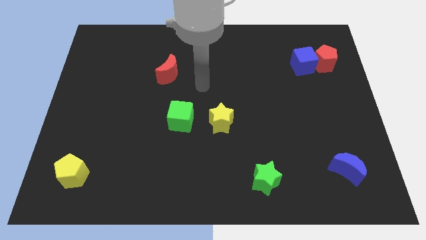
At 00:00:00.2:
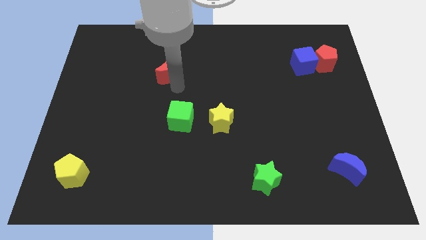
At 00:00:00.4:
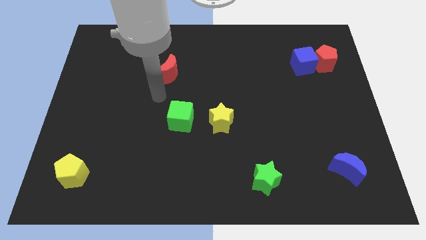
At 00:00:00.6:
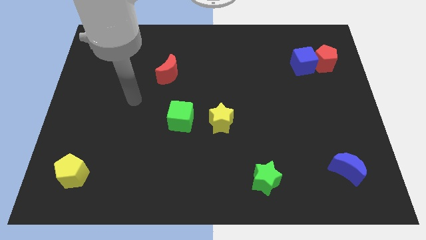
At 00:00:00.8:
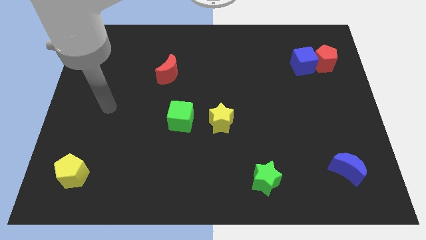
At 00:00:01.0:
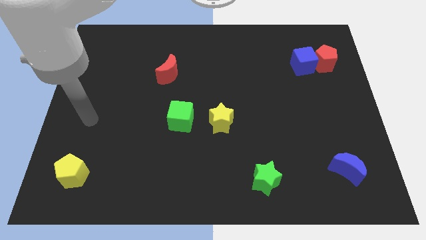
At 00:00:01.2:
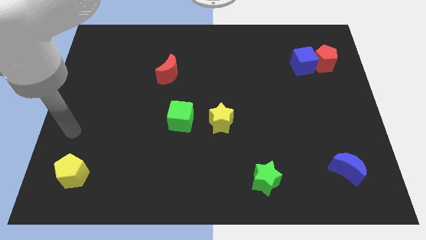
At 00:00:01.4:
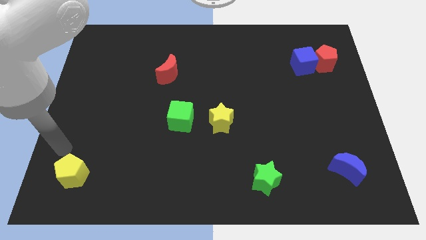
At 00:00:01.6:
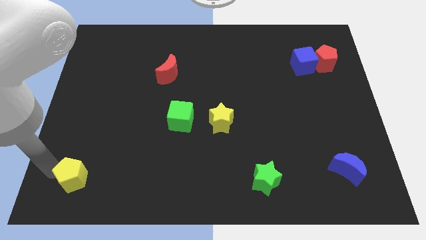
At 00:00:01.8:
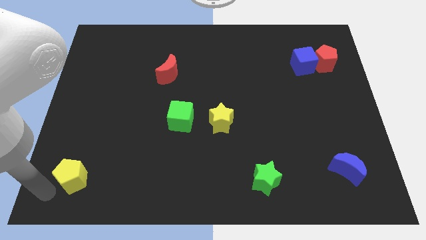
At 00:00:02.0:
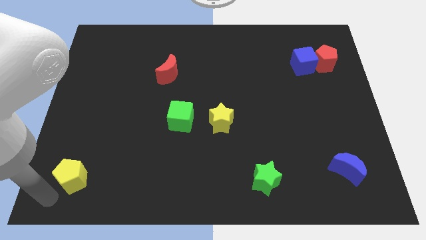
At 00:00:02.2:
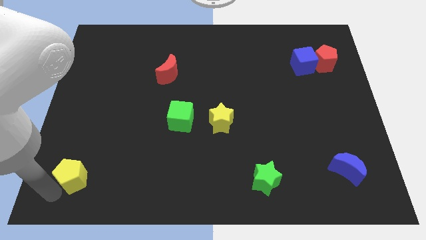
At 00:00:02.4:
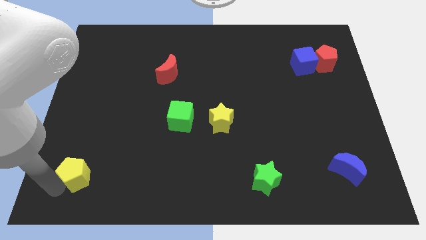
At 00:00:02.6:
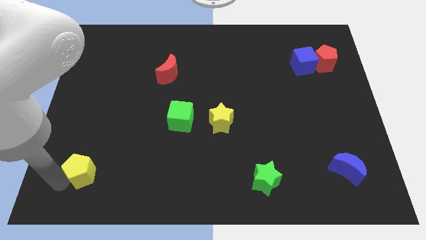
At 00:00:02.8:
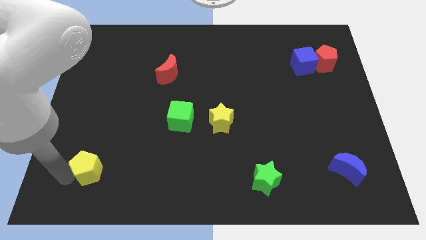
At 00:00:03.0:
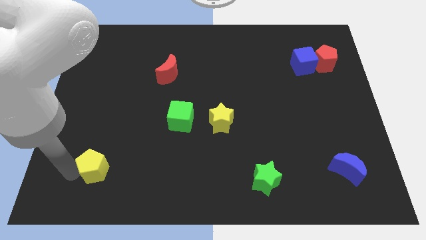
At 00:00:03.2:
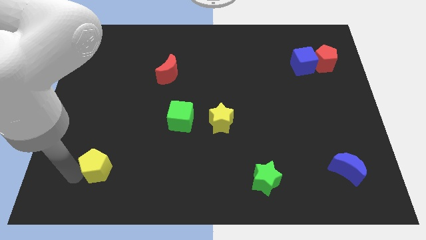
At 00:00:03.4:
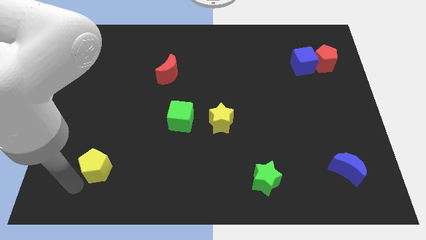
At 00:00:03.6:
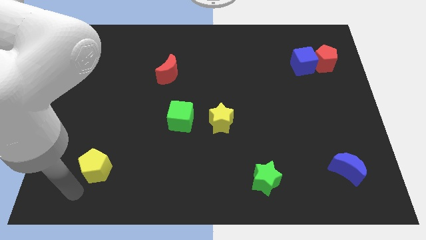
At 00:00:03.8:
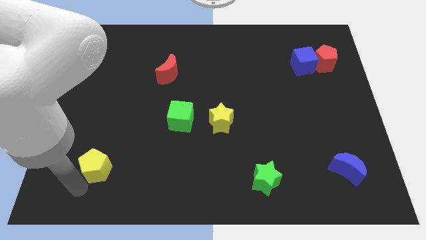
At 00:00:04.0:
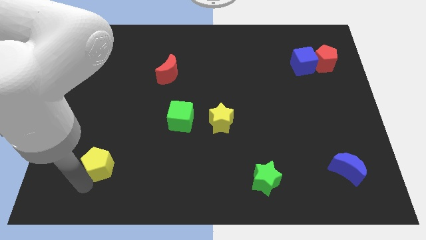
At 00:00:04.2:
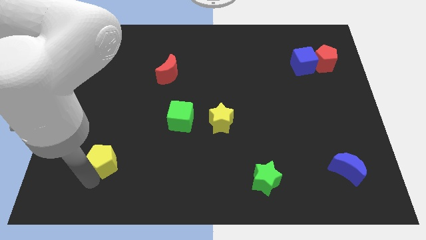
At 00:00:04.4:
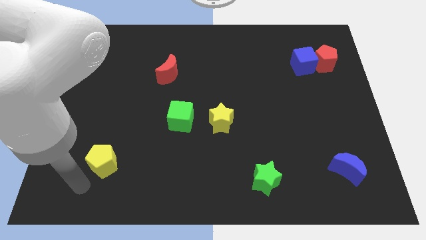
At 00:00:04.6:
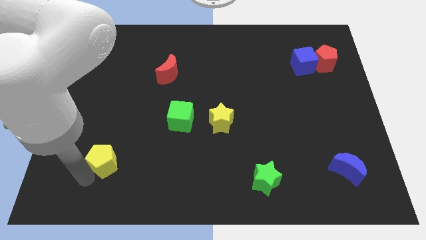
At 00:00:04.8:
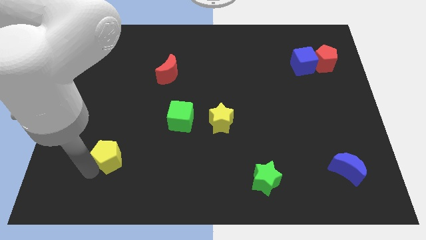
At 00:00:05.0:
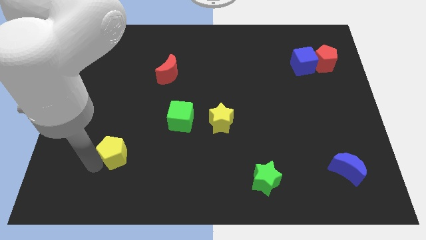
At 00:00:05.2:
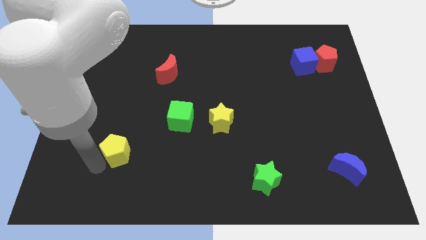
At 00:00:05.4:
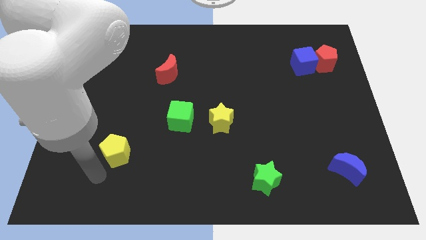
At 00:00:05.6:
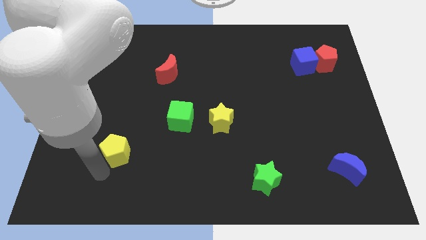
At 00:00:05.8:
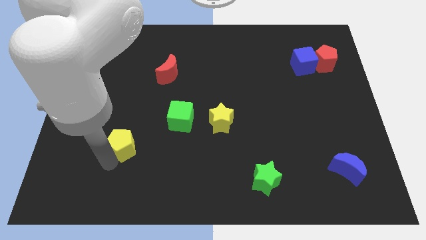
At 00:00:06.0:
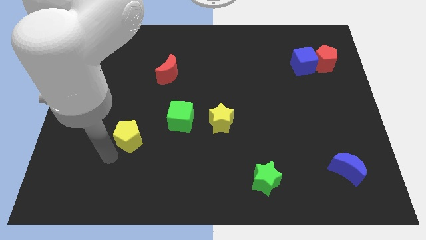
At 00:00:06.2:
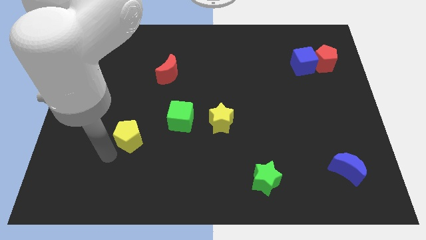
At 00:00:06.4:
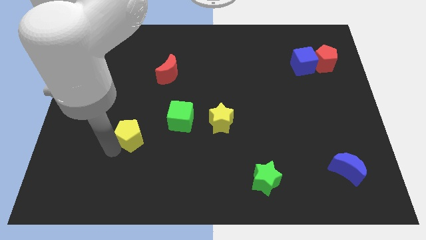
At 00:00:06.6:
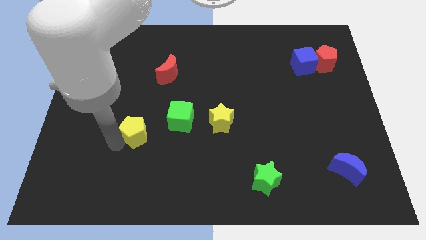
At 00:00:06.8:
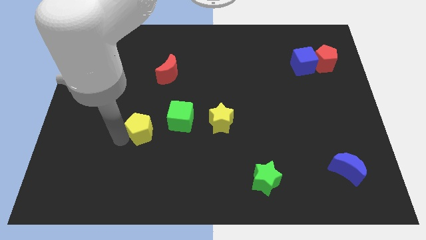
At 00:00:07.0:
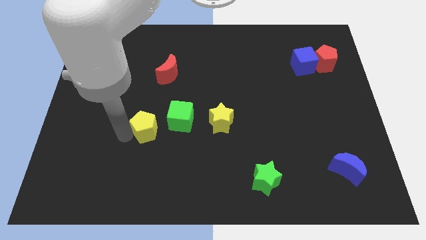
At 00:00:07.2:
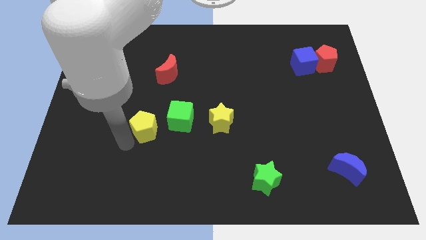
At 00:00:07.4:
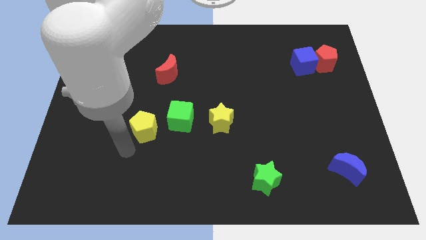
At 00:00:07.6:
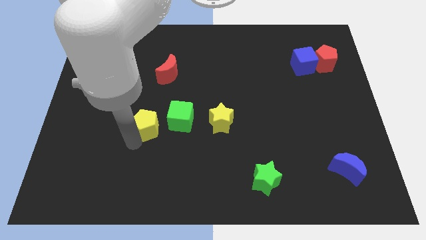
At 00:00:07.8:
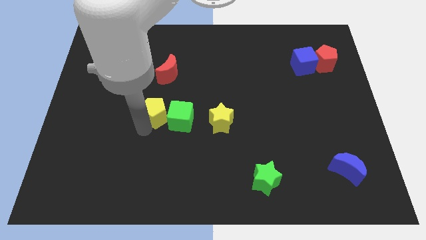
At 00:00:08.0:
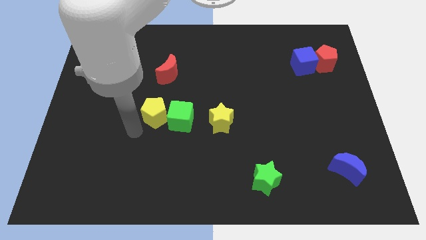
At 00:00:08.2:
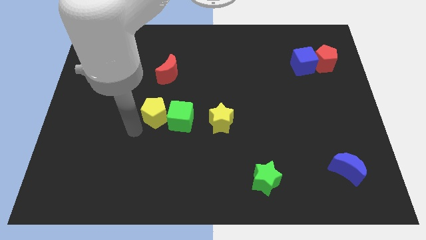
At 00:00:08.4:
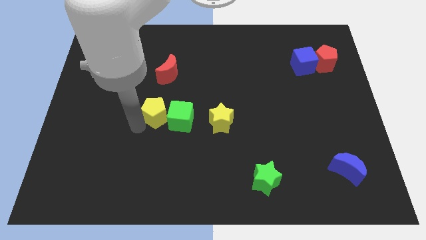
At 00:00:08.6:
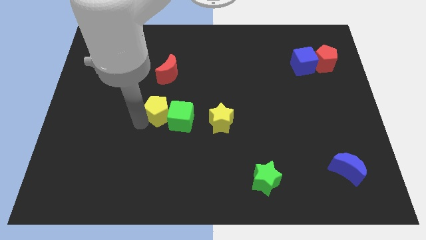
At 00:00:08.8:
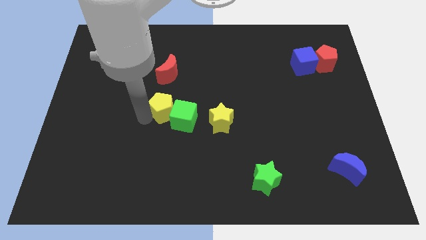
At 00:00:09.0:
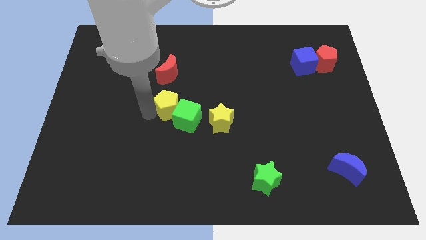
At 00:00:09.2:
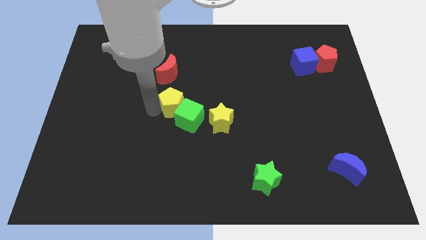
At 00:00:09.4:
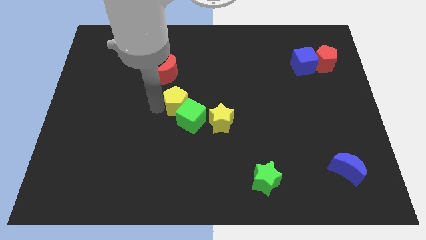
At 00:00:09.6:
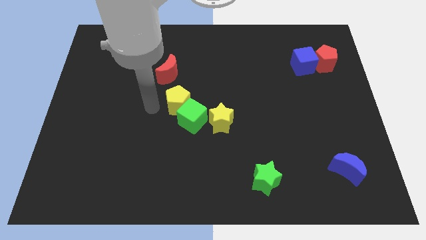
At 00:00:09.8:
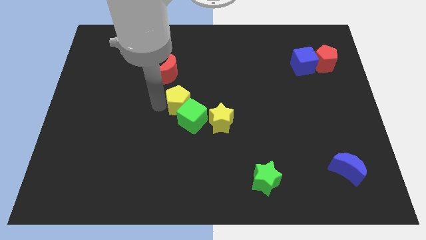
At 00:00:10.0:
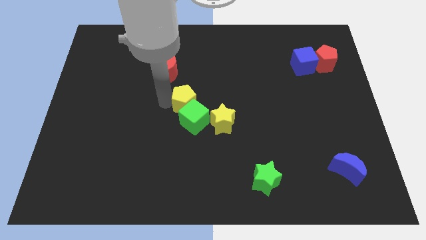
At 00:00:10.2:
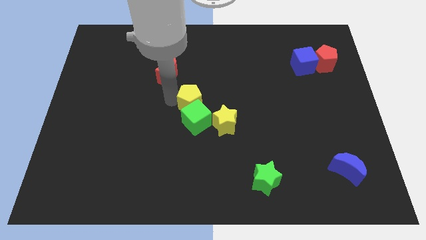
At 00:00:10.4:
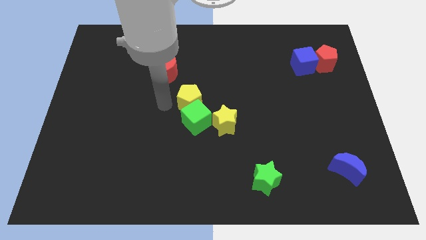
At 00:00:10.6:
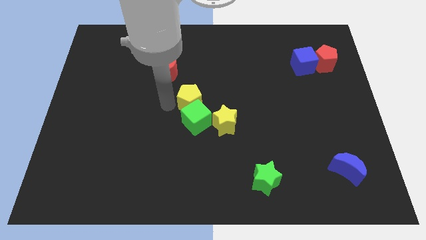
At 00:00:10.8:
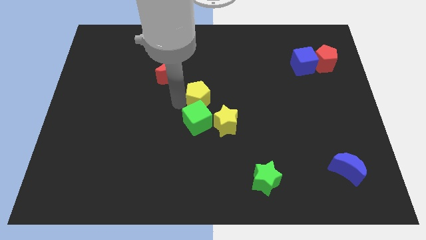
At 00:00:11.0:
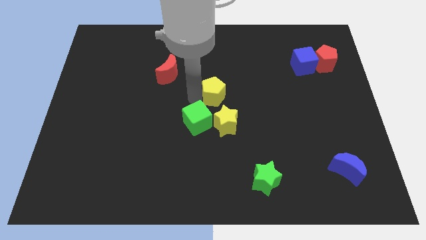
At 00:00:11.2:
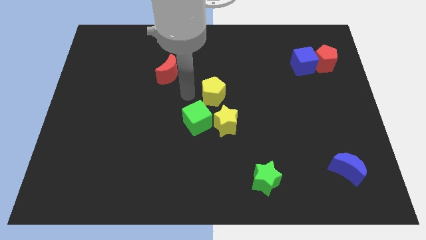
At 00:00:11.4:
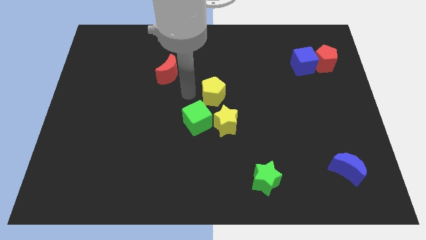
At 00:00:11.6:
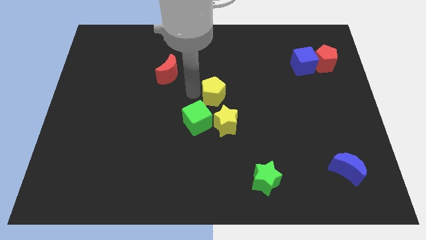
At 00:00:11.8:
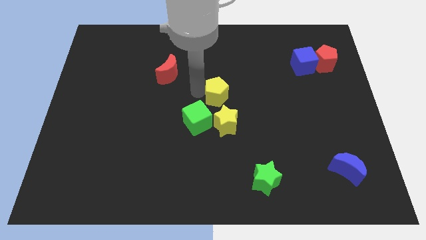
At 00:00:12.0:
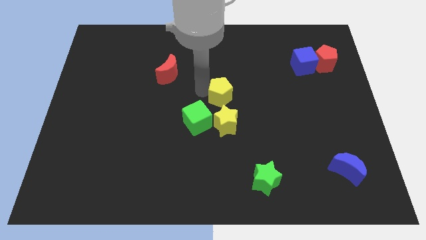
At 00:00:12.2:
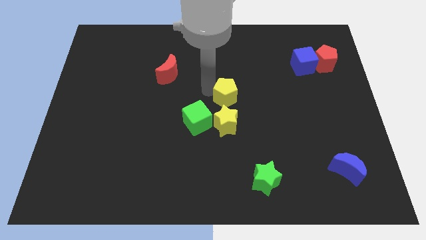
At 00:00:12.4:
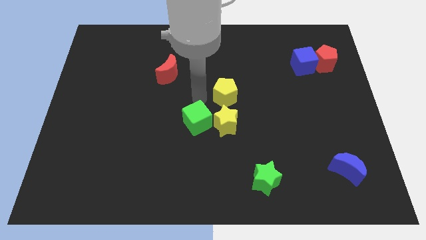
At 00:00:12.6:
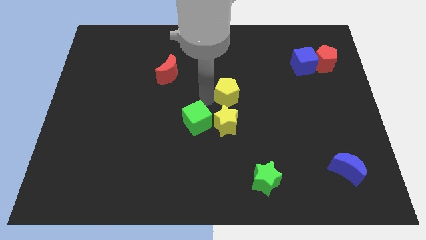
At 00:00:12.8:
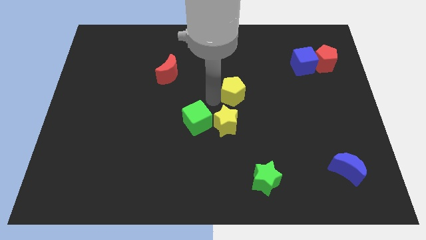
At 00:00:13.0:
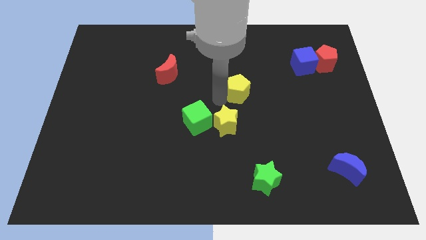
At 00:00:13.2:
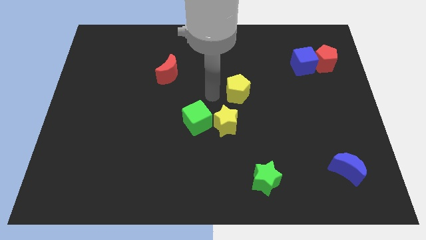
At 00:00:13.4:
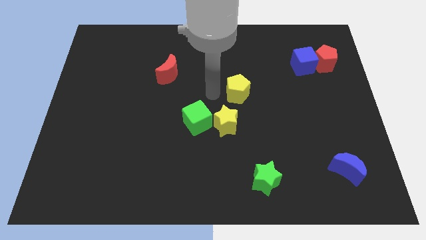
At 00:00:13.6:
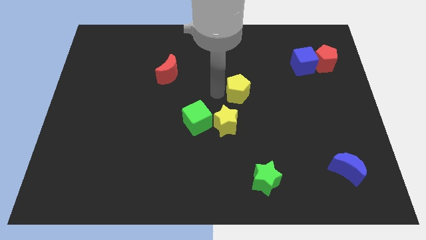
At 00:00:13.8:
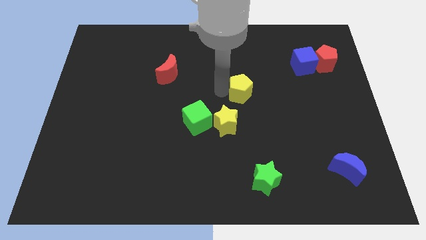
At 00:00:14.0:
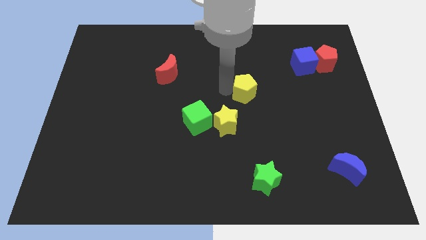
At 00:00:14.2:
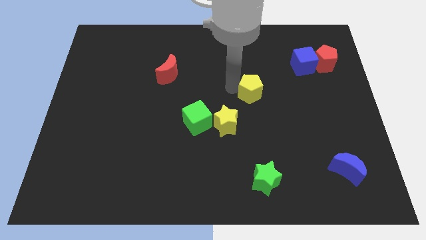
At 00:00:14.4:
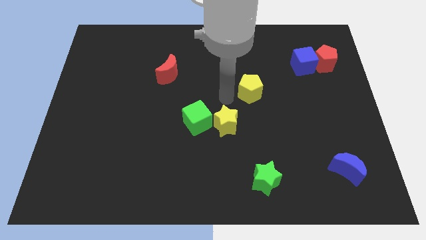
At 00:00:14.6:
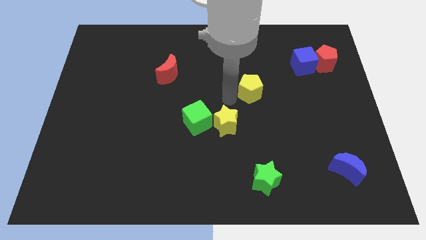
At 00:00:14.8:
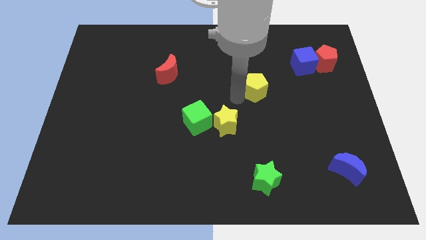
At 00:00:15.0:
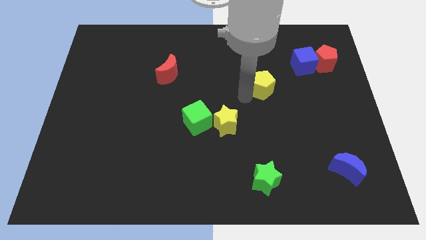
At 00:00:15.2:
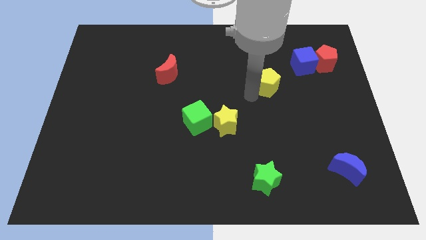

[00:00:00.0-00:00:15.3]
move the yellow pentagon to the bottom left of the blue cube
